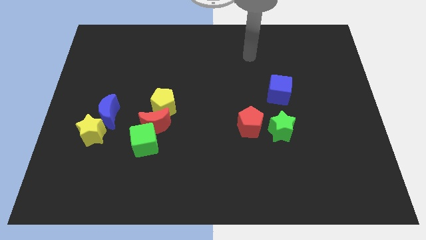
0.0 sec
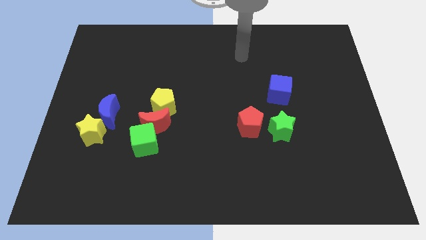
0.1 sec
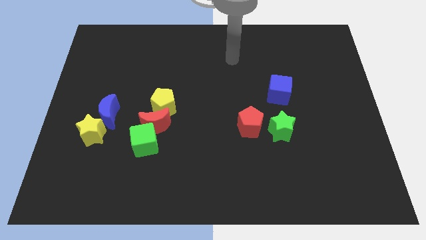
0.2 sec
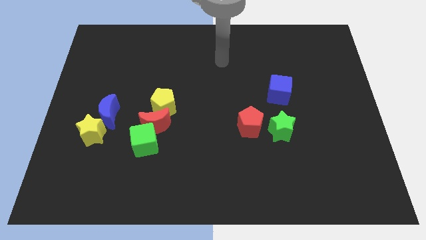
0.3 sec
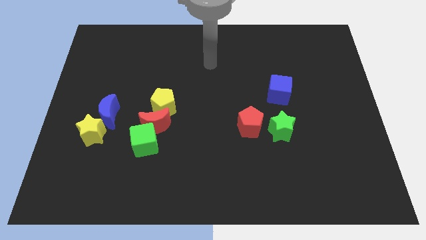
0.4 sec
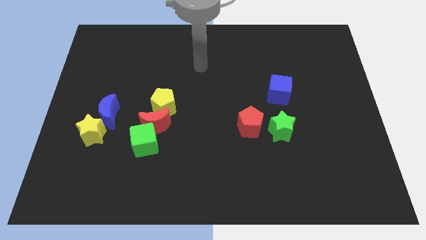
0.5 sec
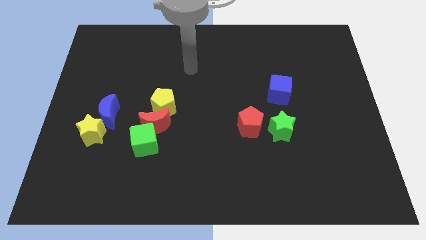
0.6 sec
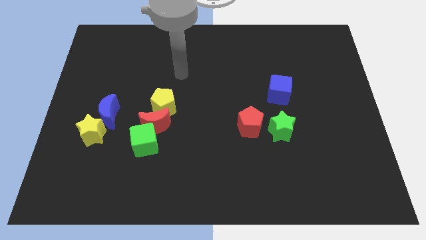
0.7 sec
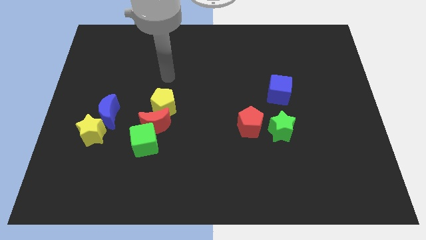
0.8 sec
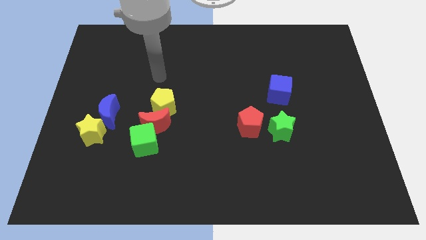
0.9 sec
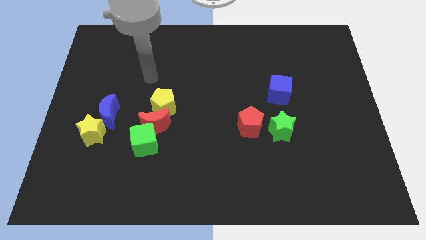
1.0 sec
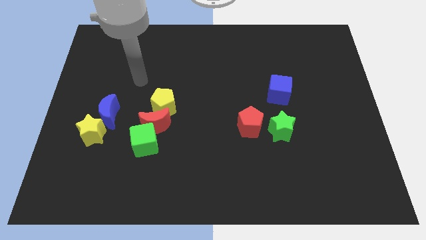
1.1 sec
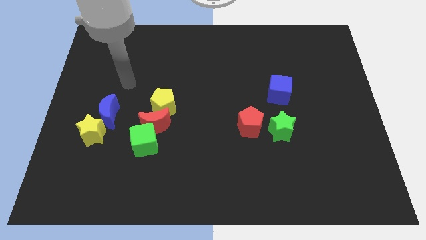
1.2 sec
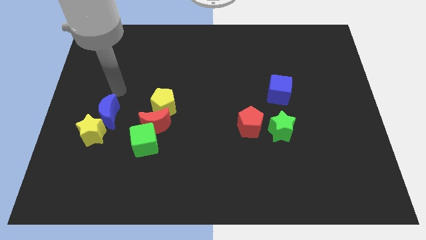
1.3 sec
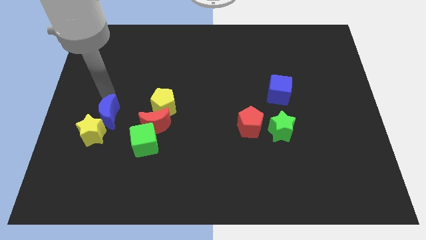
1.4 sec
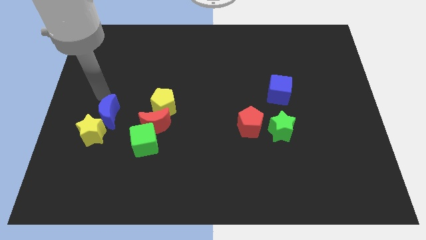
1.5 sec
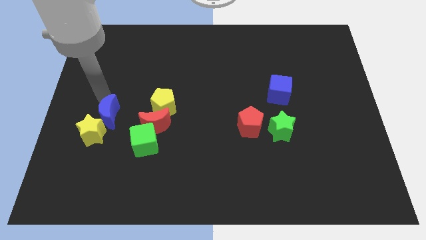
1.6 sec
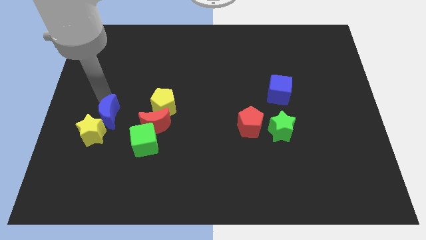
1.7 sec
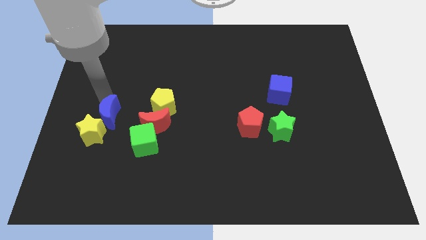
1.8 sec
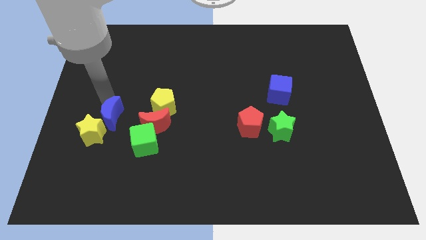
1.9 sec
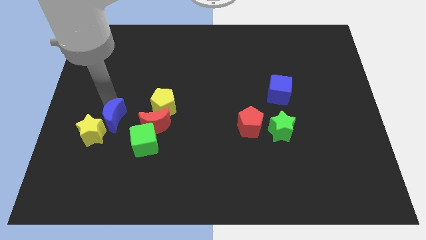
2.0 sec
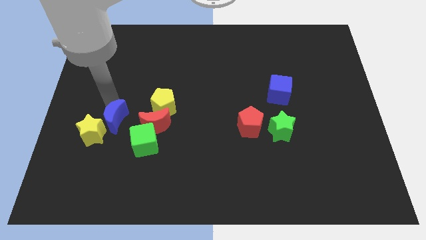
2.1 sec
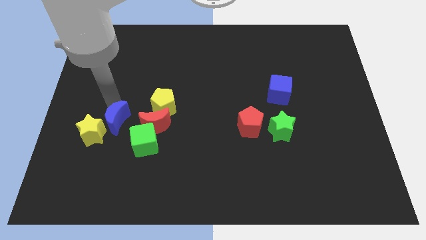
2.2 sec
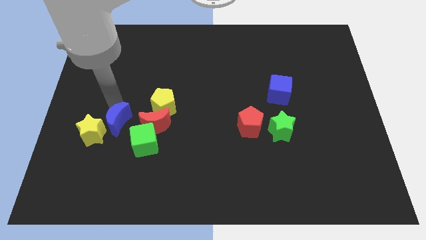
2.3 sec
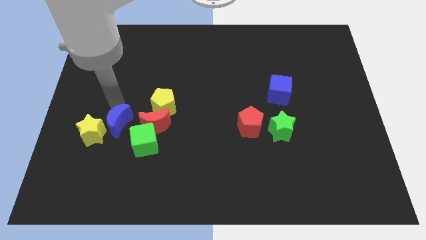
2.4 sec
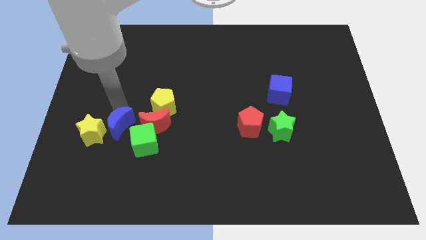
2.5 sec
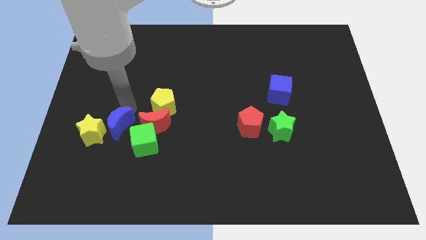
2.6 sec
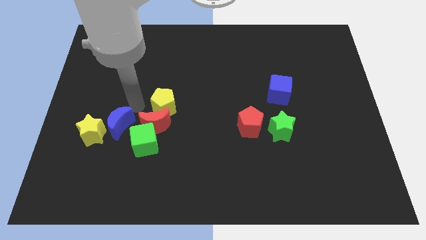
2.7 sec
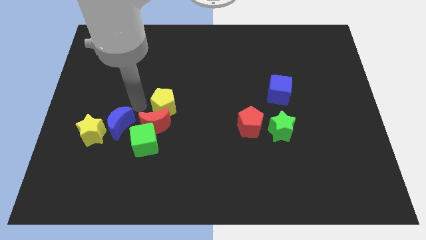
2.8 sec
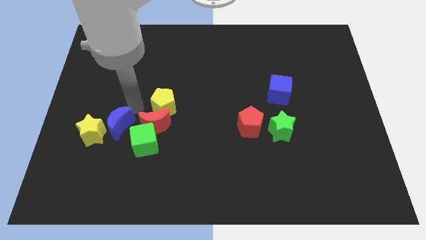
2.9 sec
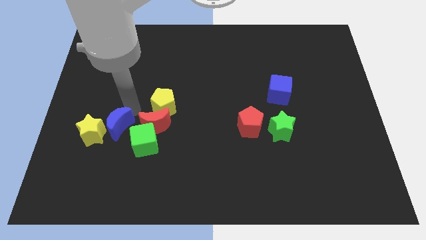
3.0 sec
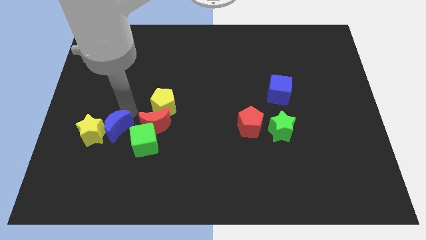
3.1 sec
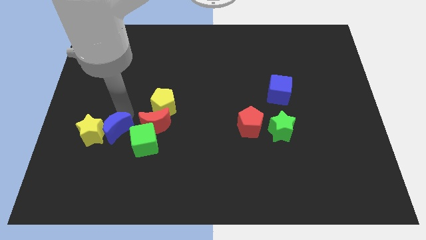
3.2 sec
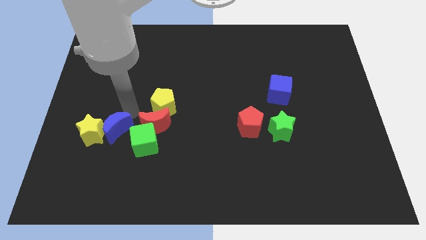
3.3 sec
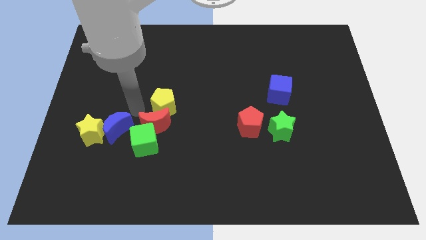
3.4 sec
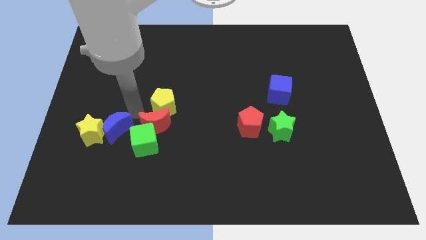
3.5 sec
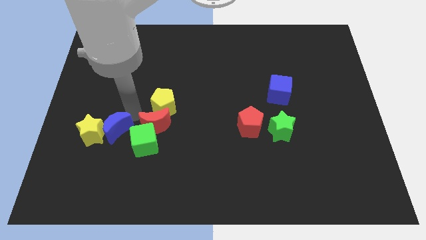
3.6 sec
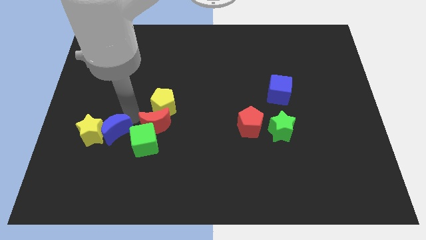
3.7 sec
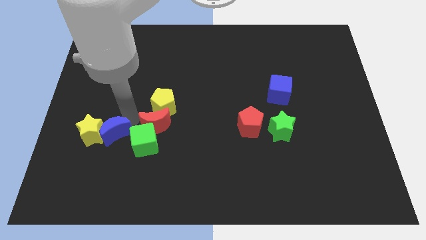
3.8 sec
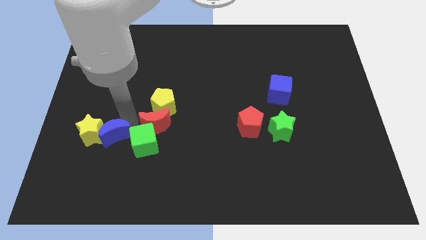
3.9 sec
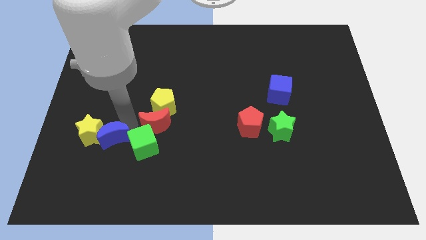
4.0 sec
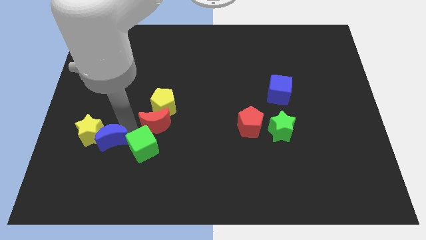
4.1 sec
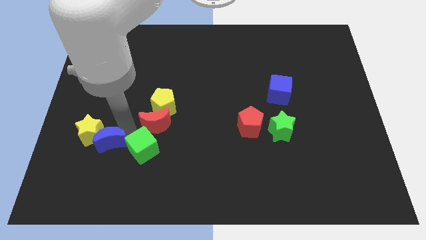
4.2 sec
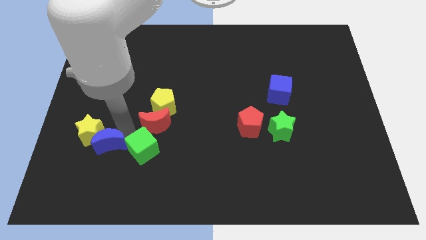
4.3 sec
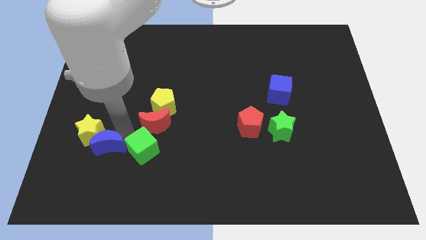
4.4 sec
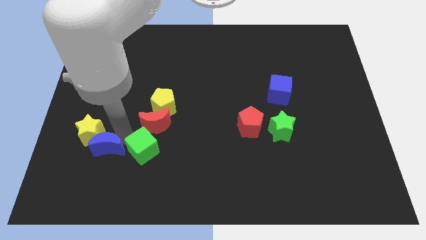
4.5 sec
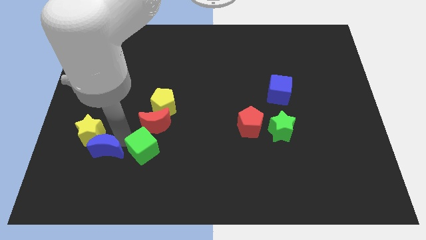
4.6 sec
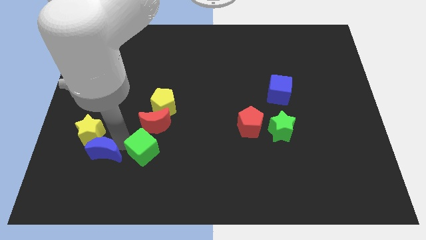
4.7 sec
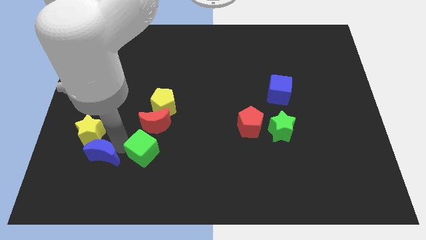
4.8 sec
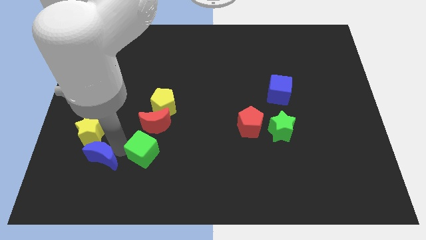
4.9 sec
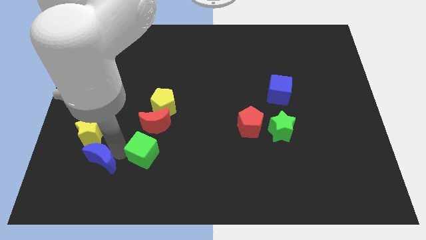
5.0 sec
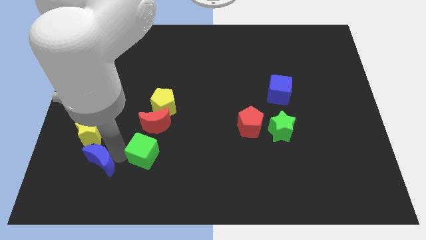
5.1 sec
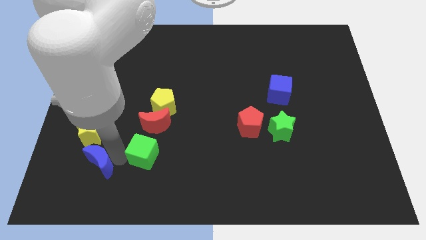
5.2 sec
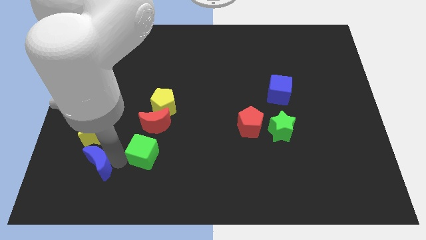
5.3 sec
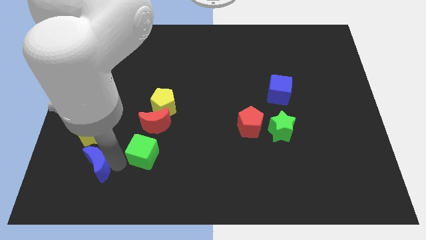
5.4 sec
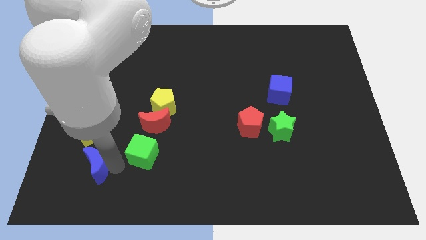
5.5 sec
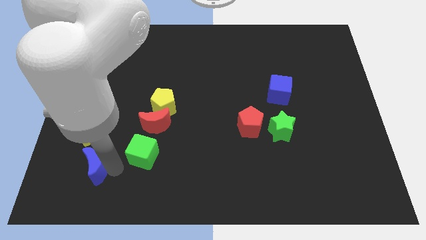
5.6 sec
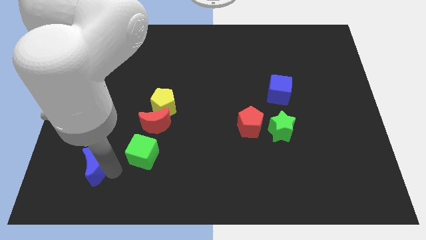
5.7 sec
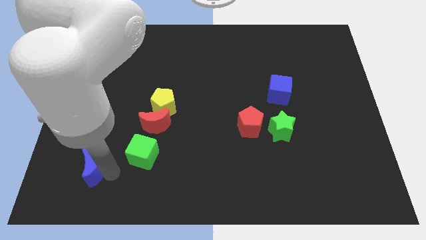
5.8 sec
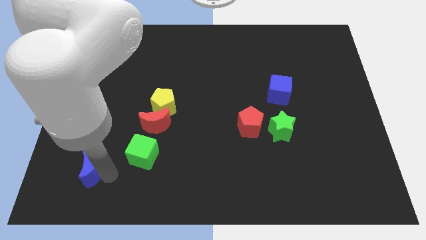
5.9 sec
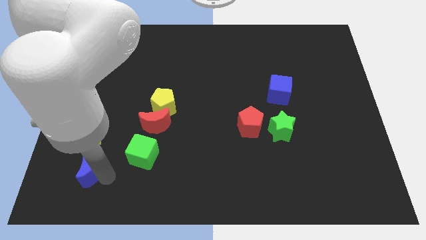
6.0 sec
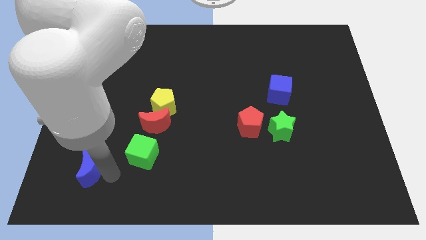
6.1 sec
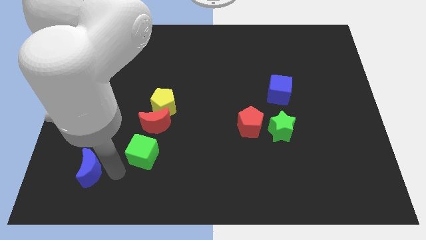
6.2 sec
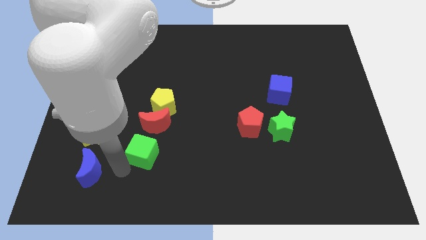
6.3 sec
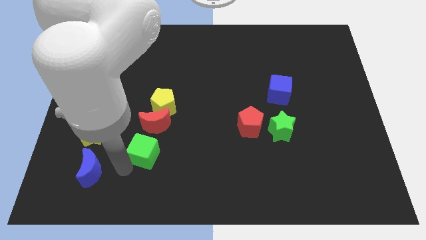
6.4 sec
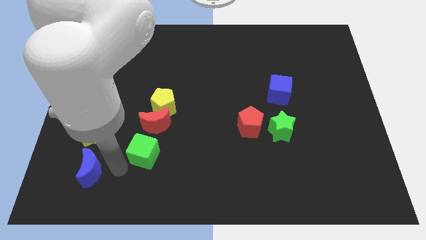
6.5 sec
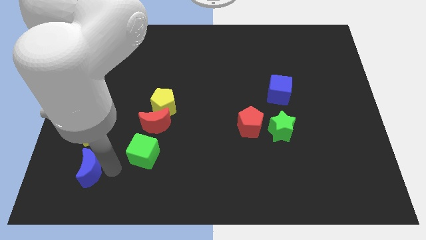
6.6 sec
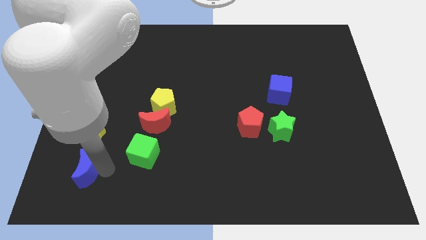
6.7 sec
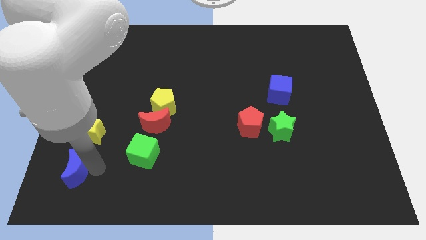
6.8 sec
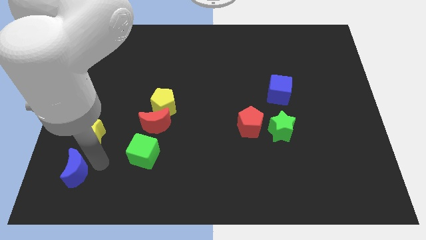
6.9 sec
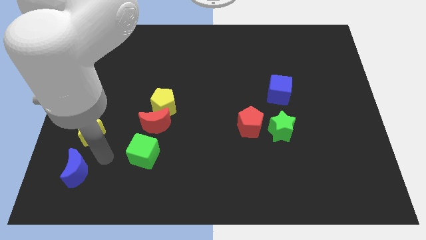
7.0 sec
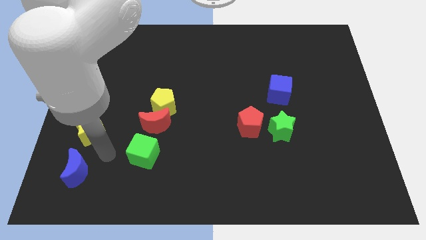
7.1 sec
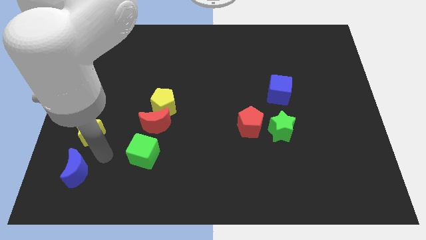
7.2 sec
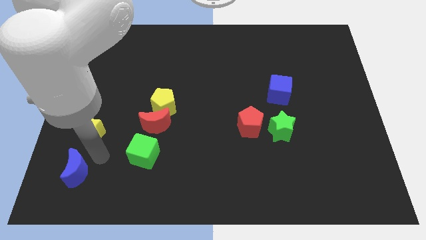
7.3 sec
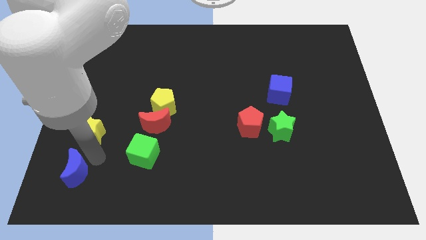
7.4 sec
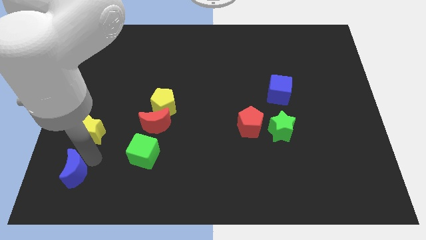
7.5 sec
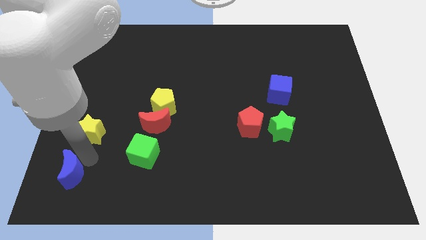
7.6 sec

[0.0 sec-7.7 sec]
move the blue moon to the bottom left of the board
